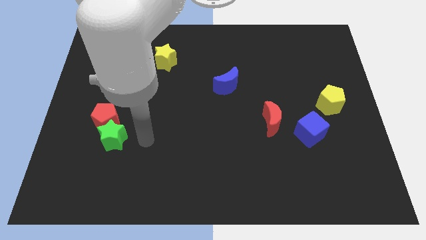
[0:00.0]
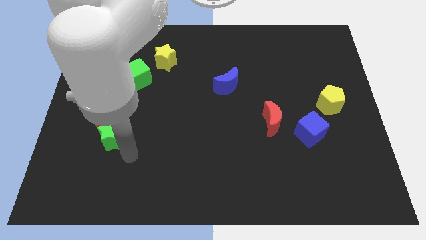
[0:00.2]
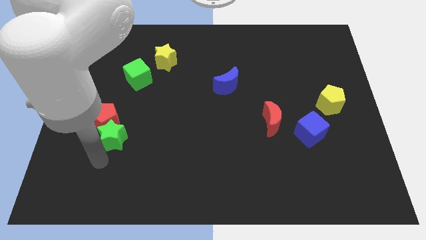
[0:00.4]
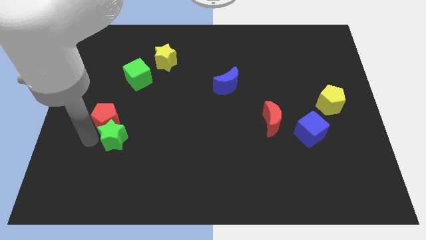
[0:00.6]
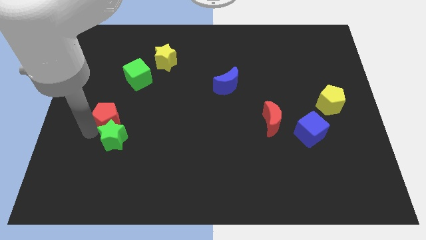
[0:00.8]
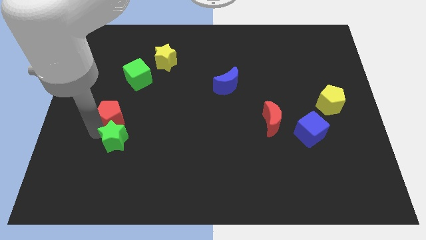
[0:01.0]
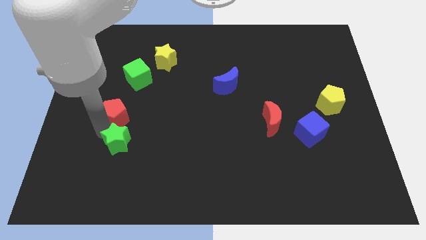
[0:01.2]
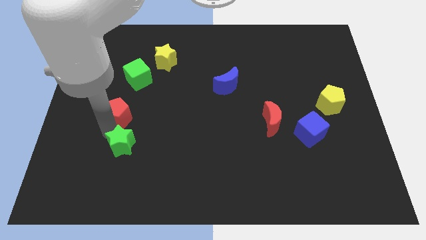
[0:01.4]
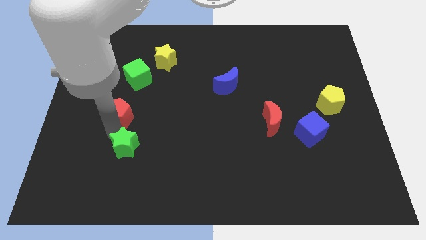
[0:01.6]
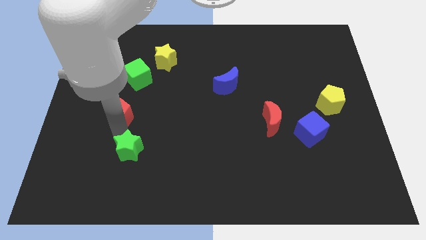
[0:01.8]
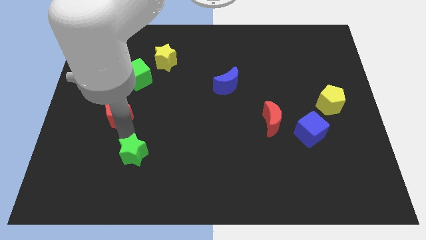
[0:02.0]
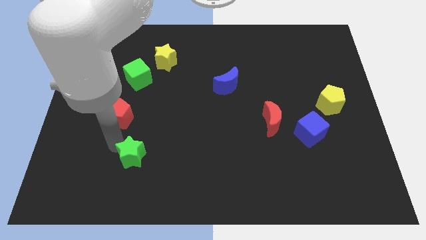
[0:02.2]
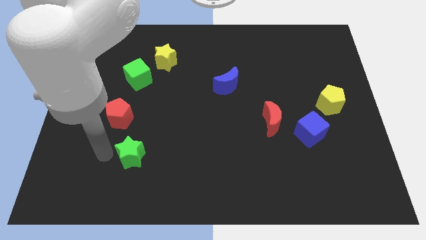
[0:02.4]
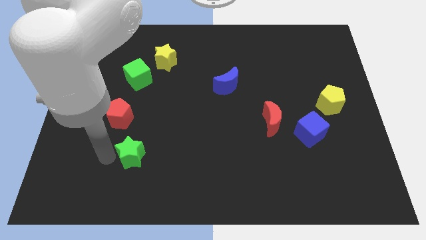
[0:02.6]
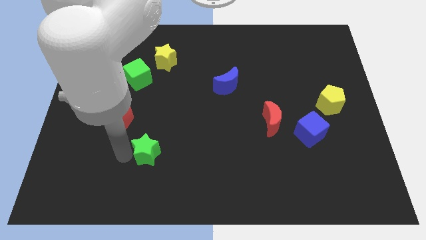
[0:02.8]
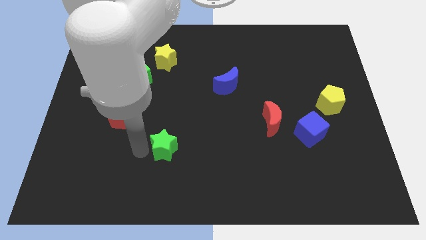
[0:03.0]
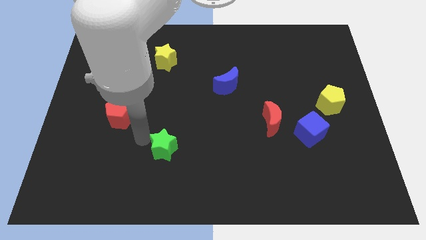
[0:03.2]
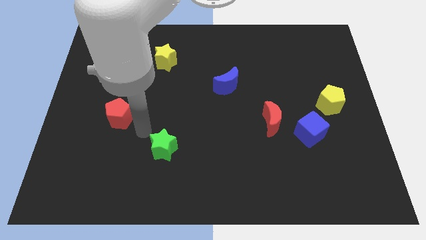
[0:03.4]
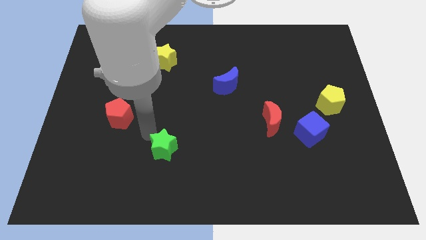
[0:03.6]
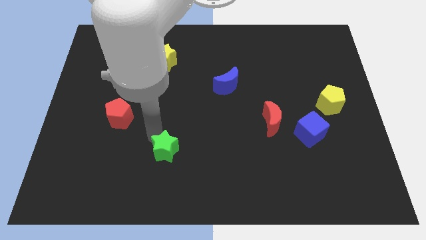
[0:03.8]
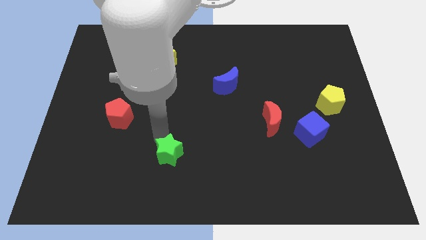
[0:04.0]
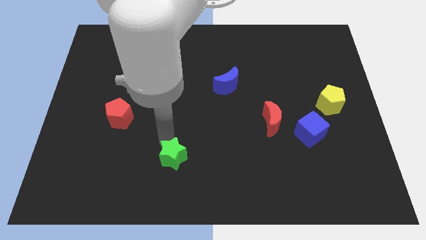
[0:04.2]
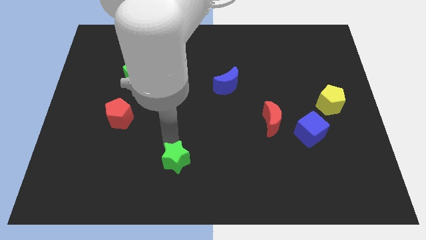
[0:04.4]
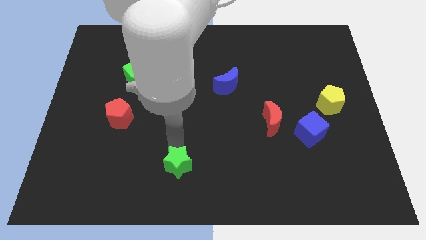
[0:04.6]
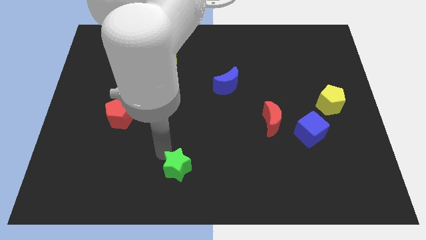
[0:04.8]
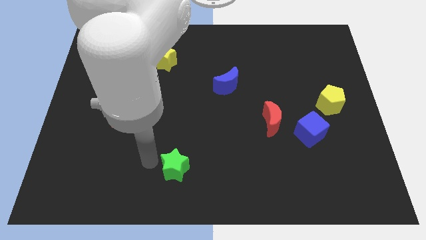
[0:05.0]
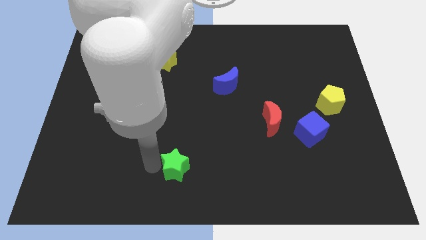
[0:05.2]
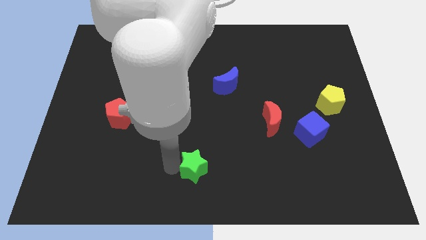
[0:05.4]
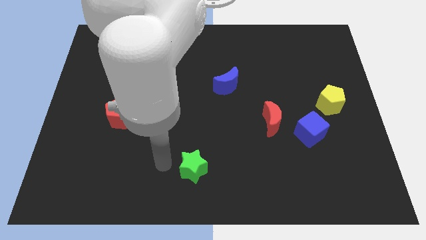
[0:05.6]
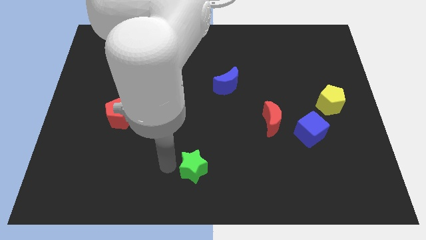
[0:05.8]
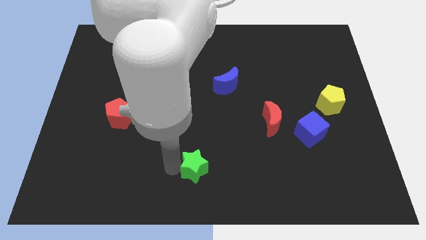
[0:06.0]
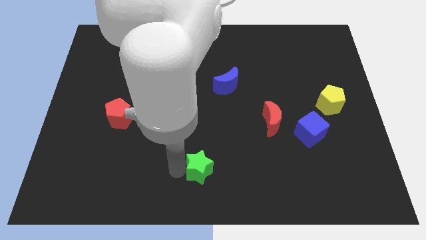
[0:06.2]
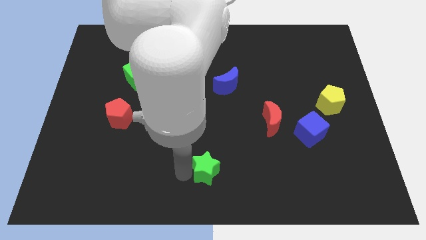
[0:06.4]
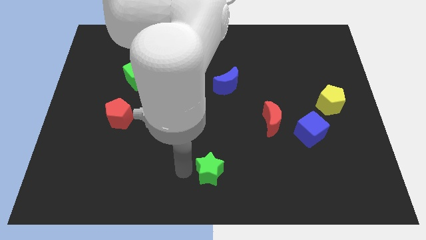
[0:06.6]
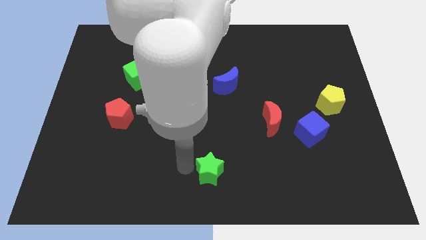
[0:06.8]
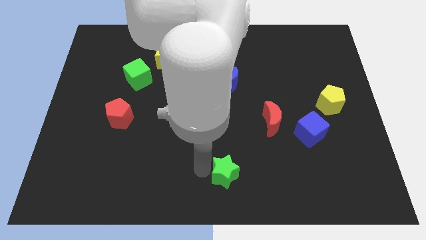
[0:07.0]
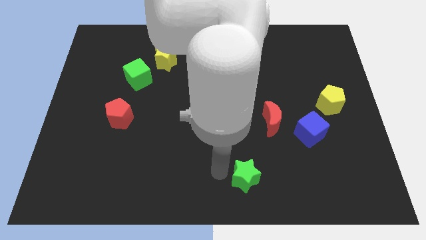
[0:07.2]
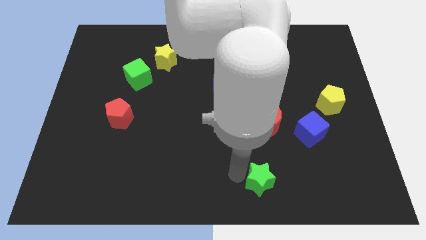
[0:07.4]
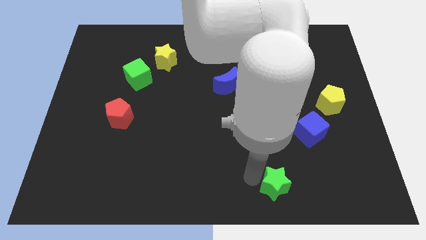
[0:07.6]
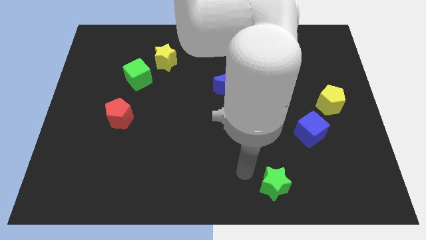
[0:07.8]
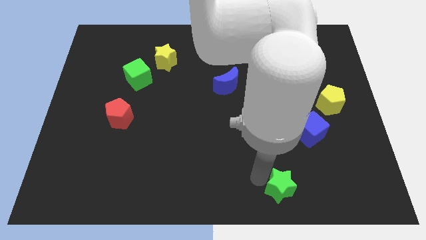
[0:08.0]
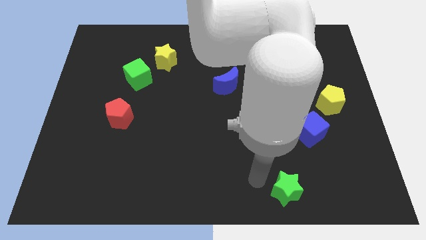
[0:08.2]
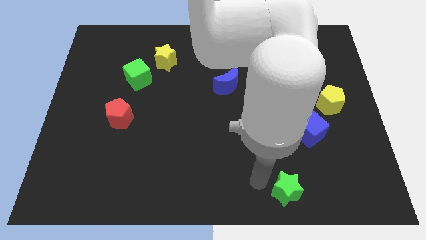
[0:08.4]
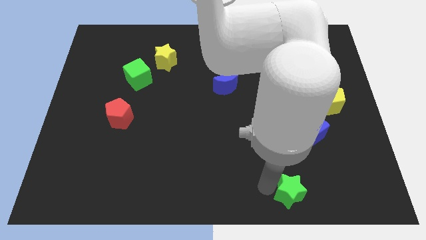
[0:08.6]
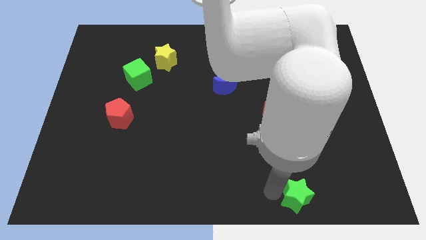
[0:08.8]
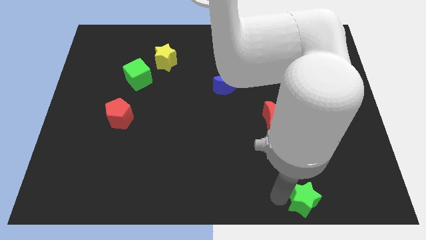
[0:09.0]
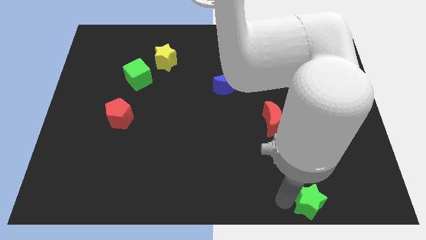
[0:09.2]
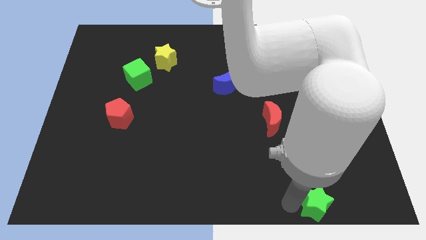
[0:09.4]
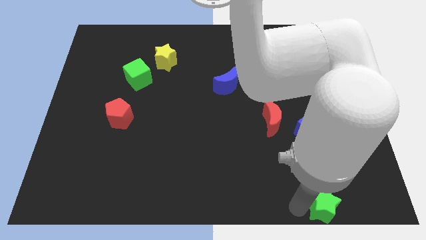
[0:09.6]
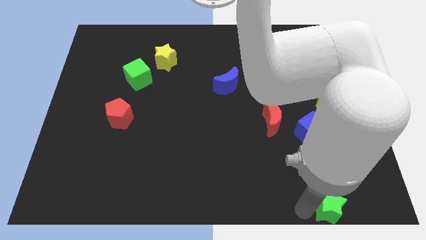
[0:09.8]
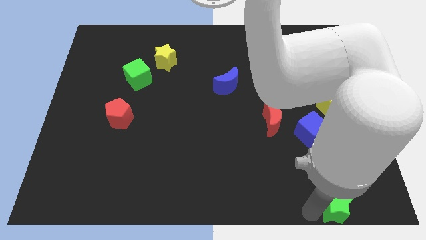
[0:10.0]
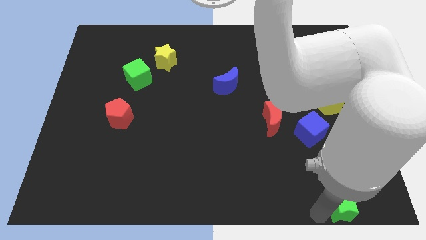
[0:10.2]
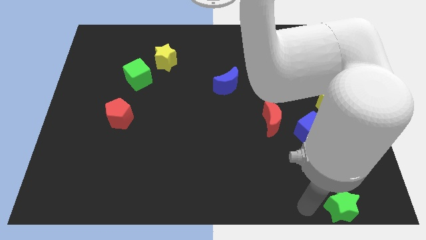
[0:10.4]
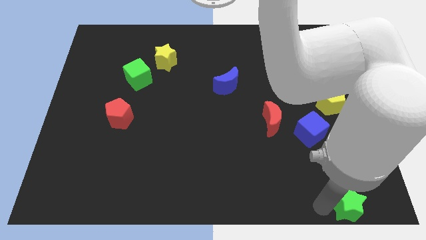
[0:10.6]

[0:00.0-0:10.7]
move the green star to the bottom right corner

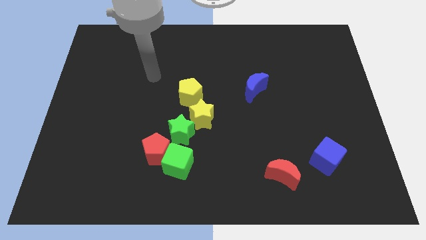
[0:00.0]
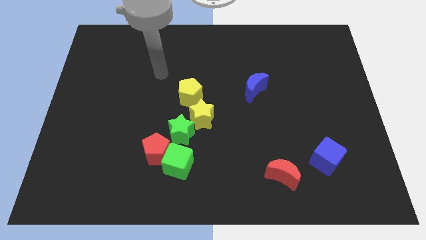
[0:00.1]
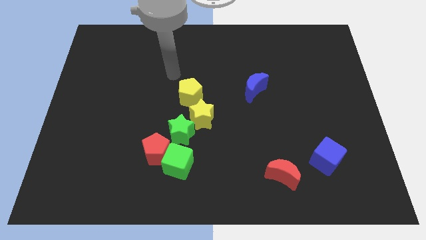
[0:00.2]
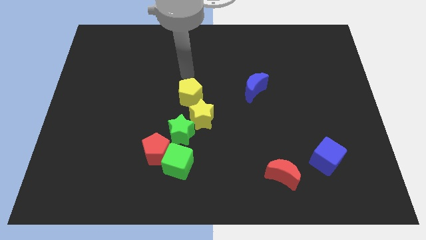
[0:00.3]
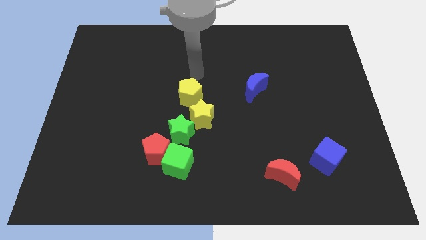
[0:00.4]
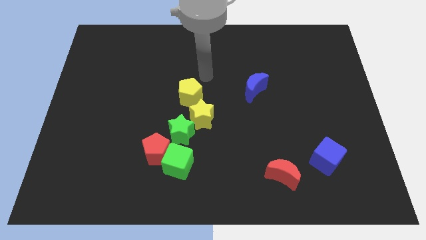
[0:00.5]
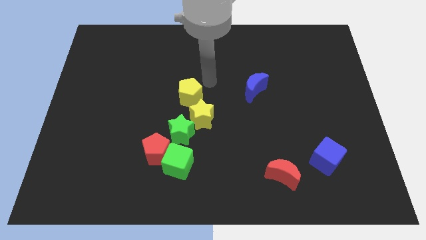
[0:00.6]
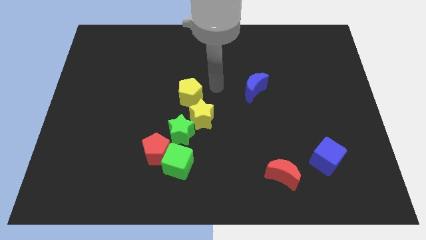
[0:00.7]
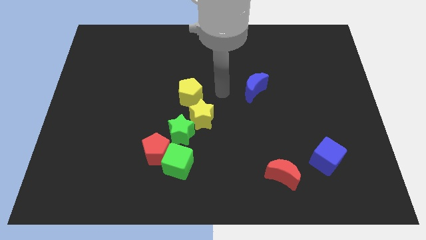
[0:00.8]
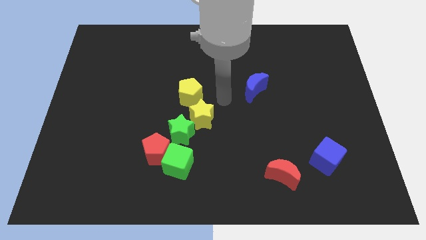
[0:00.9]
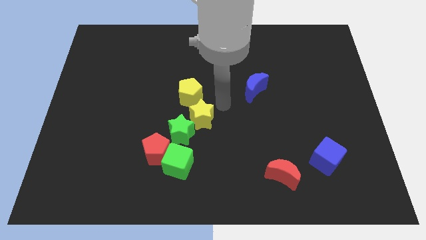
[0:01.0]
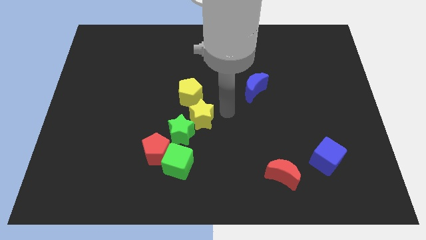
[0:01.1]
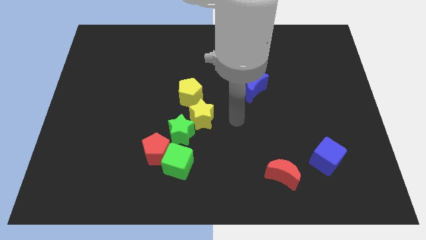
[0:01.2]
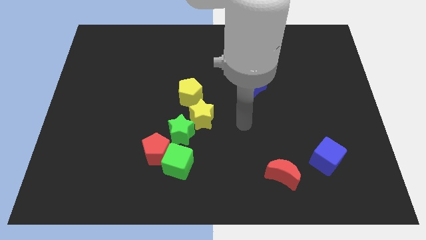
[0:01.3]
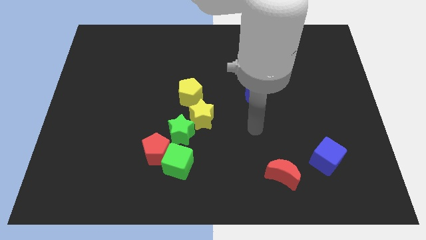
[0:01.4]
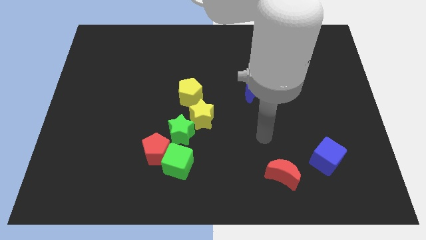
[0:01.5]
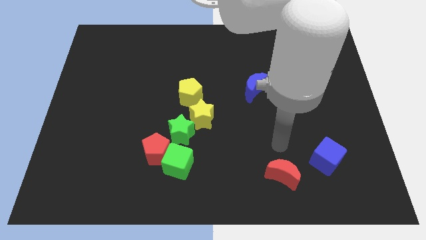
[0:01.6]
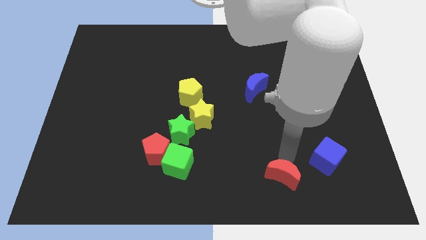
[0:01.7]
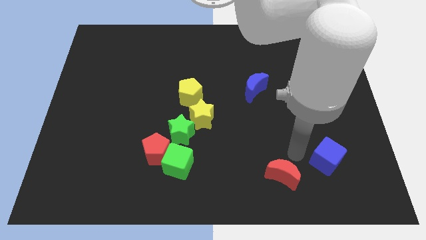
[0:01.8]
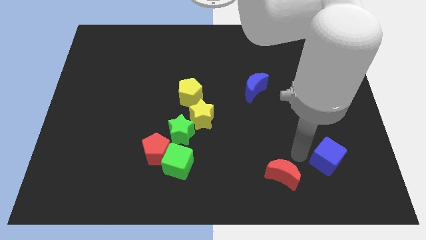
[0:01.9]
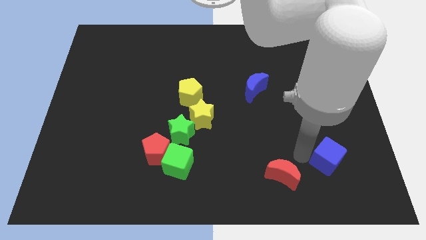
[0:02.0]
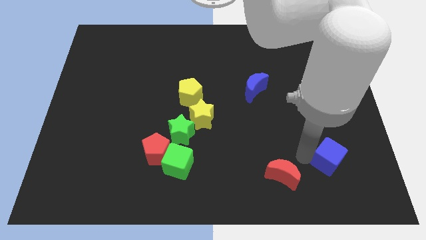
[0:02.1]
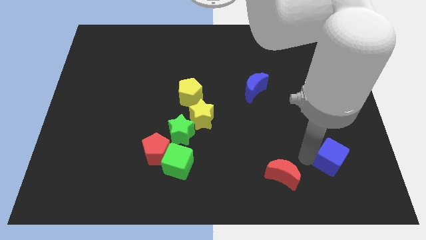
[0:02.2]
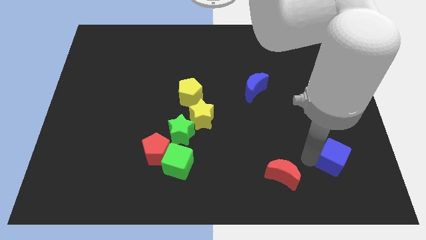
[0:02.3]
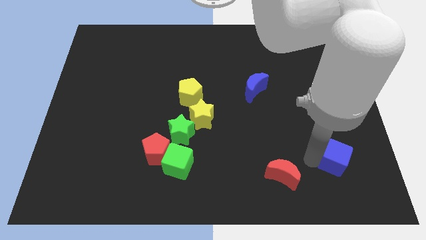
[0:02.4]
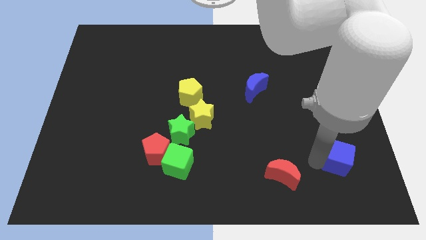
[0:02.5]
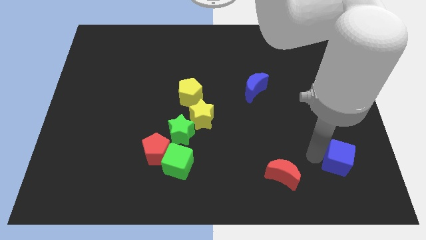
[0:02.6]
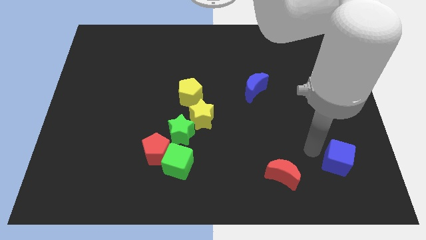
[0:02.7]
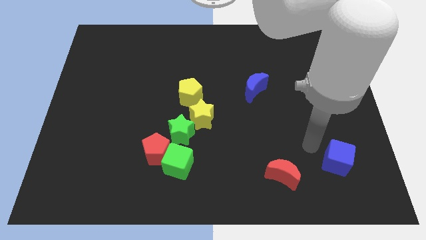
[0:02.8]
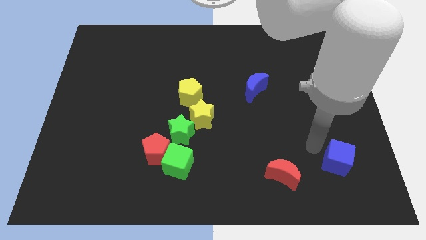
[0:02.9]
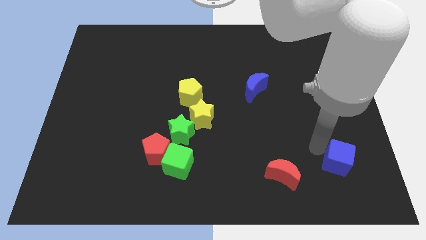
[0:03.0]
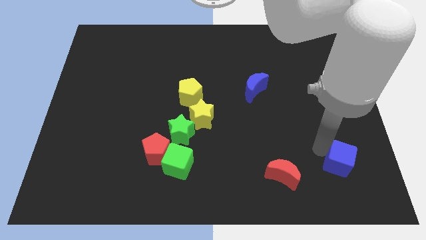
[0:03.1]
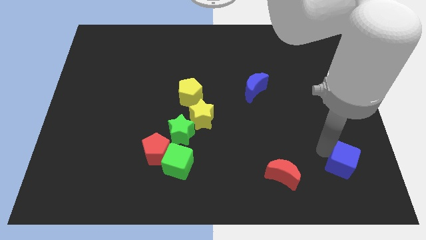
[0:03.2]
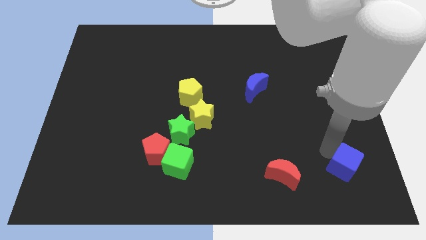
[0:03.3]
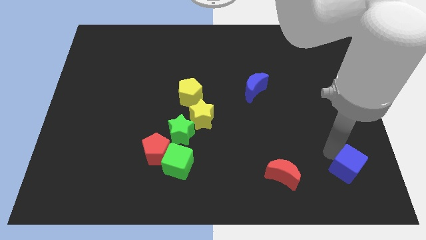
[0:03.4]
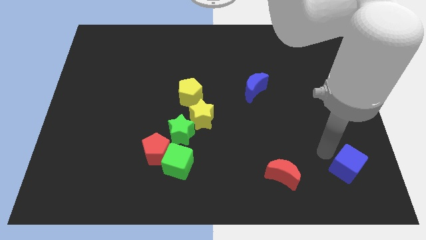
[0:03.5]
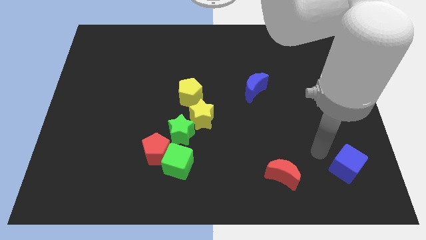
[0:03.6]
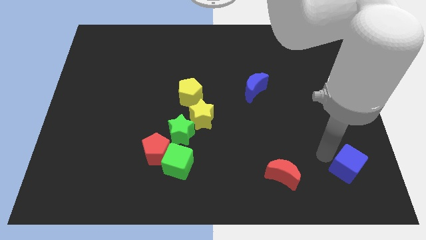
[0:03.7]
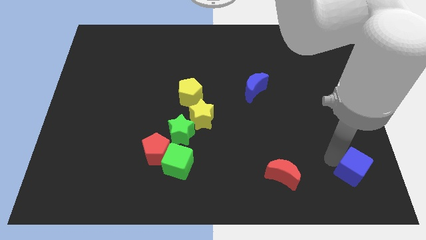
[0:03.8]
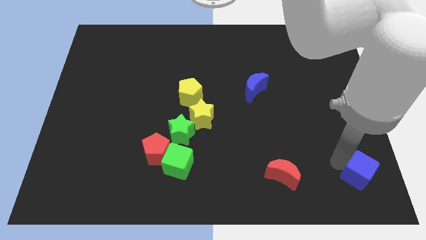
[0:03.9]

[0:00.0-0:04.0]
slide the blue cube to the bottom right corner
